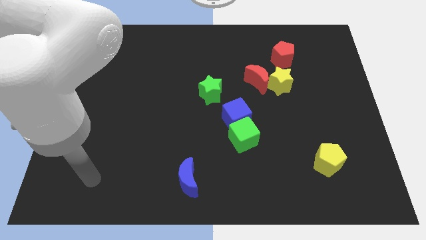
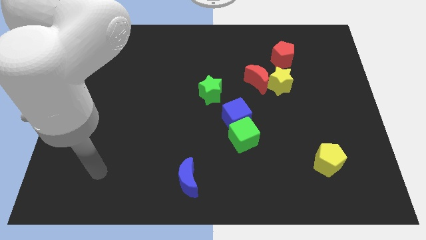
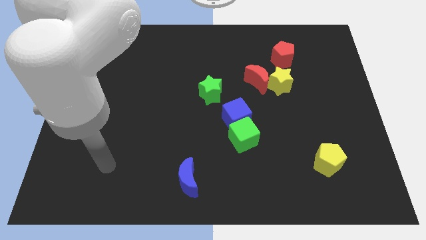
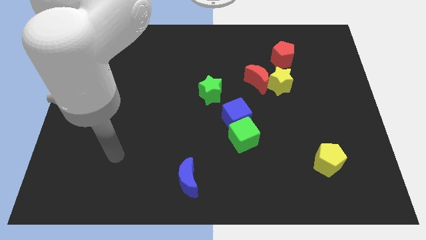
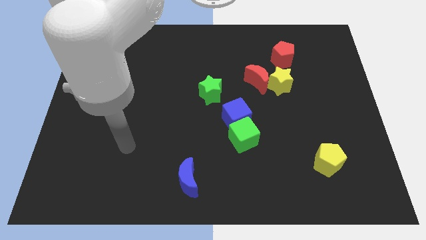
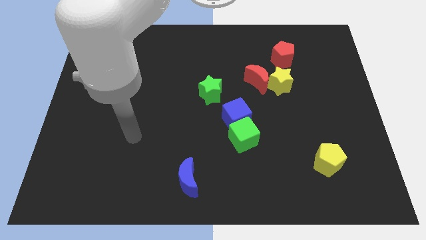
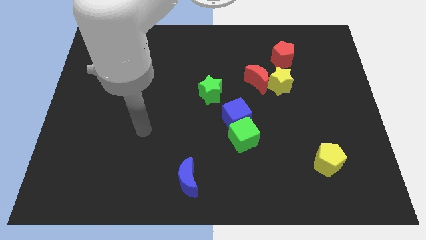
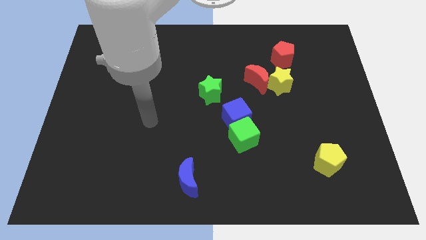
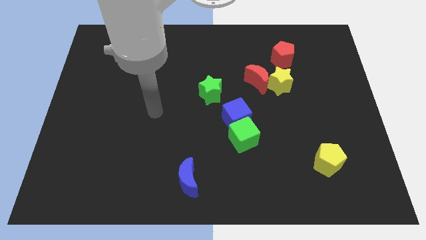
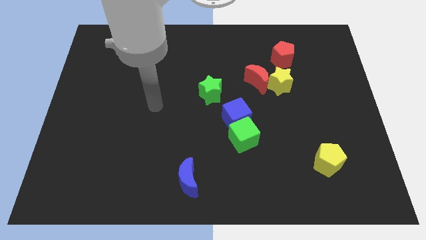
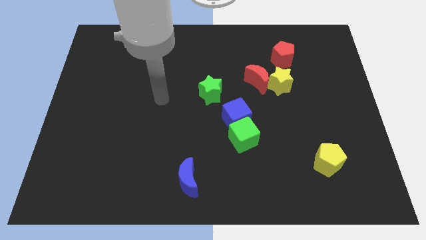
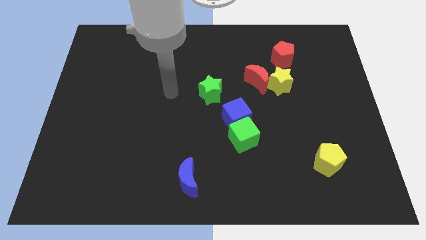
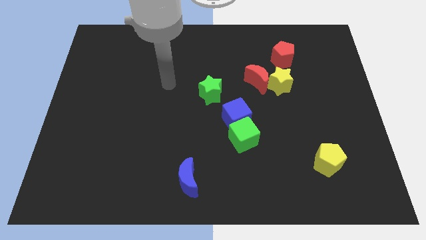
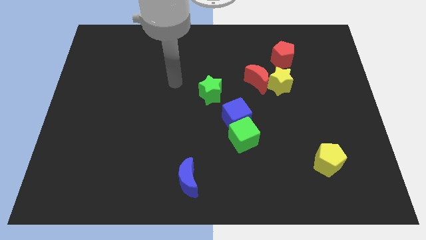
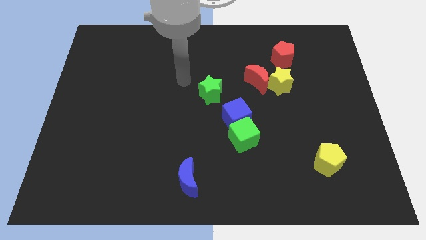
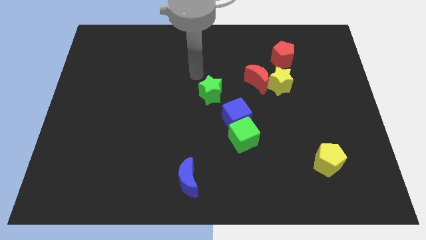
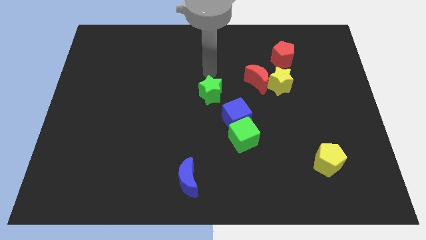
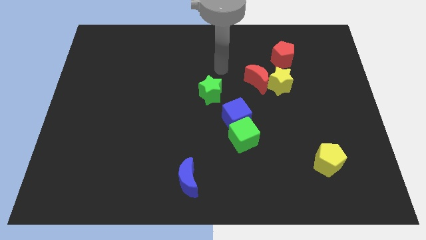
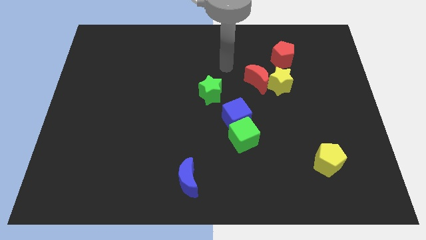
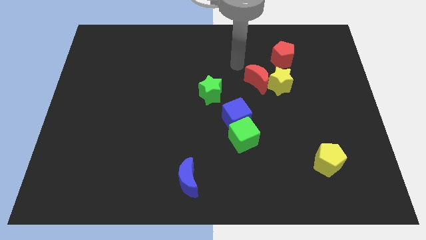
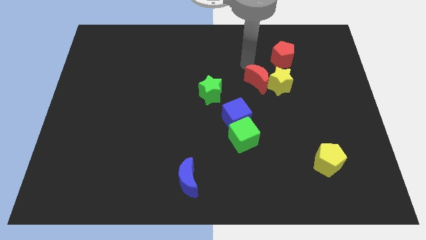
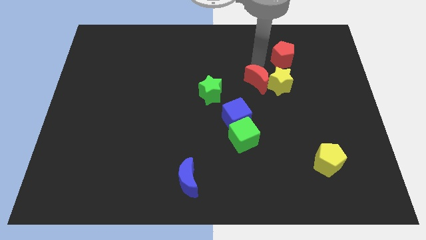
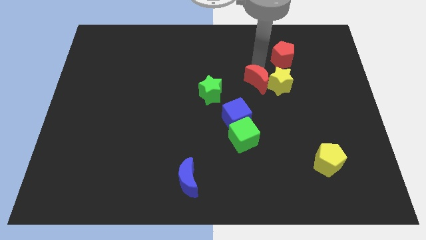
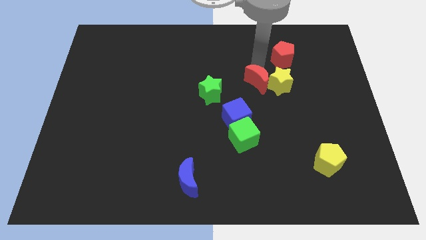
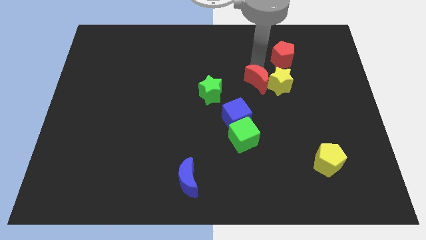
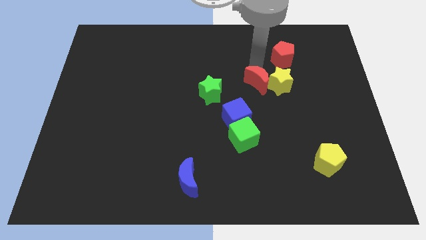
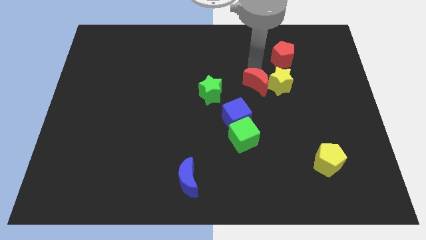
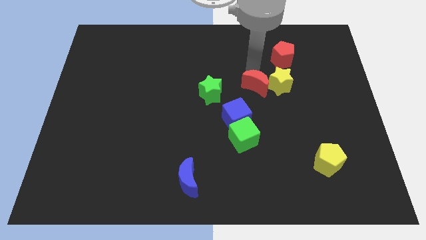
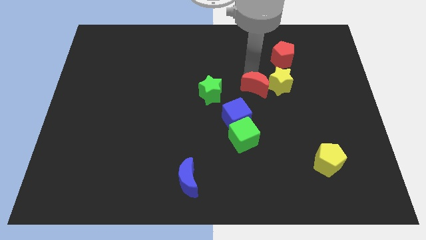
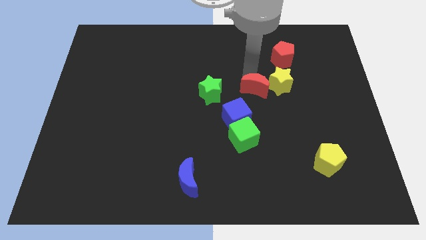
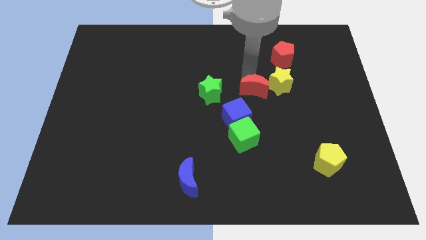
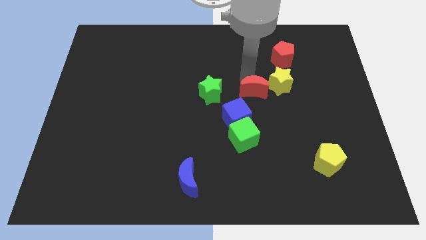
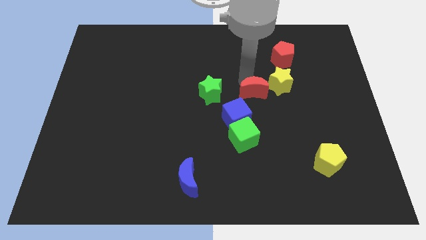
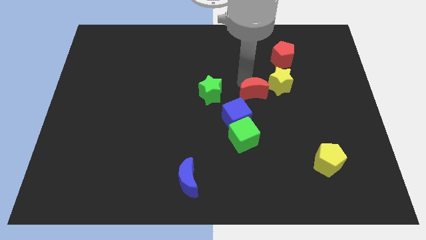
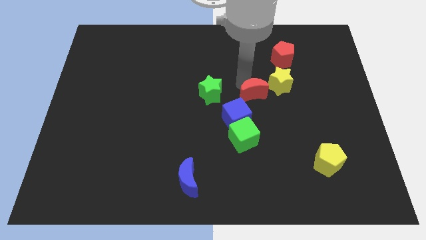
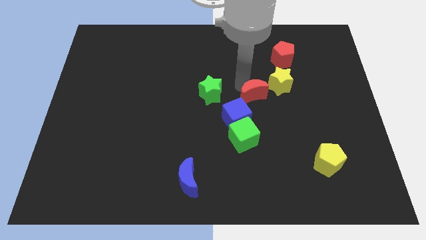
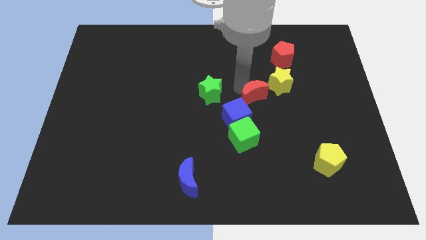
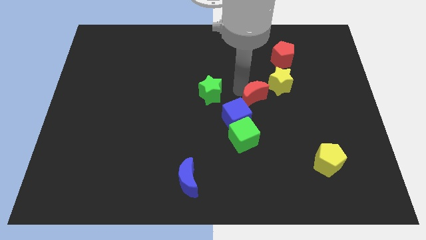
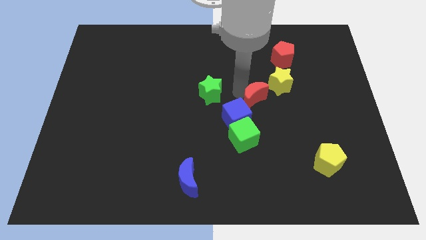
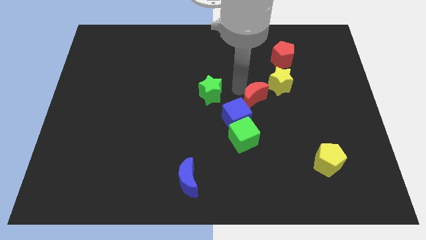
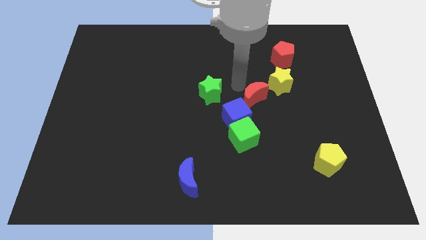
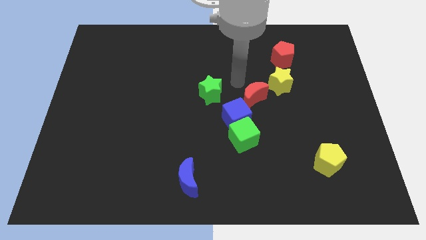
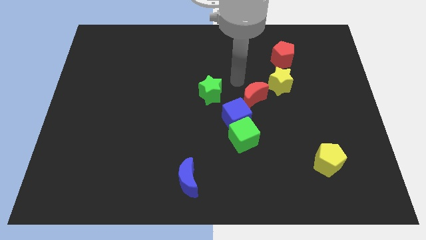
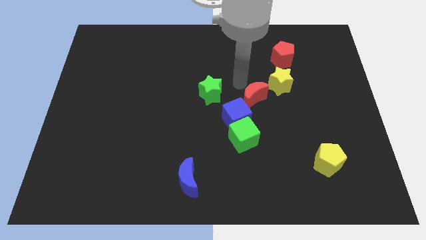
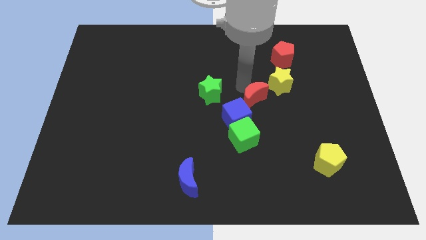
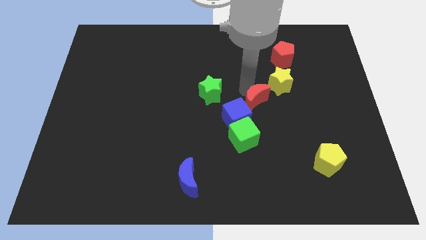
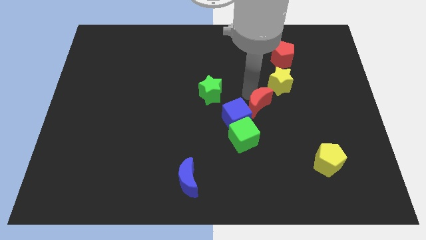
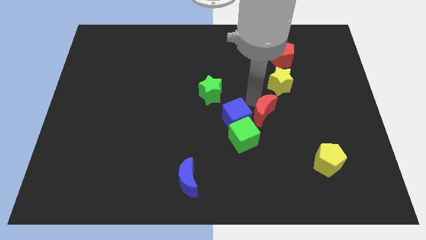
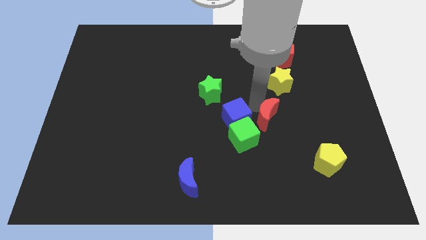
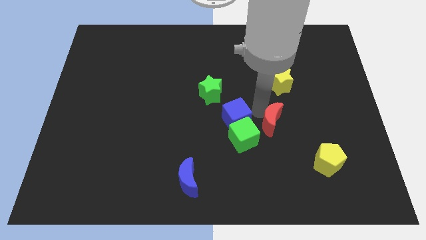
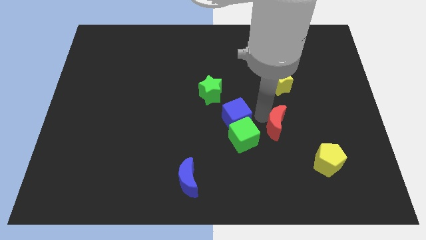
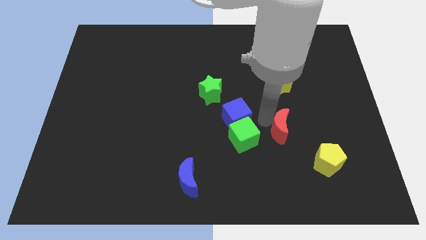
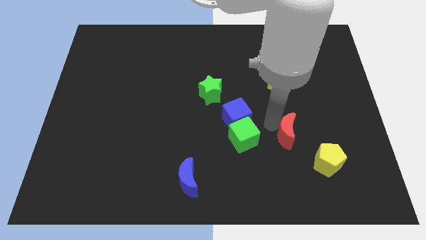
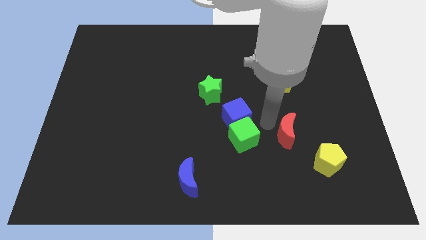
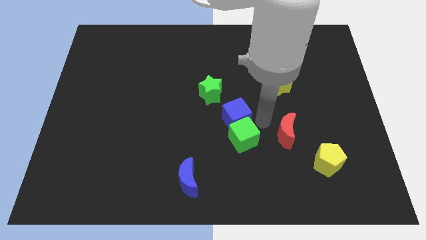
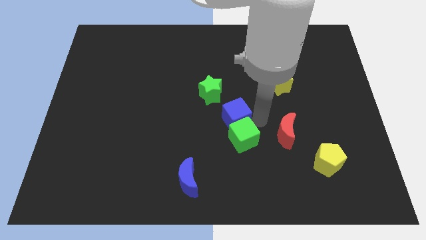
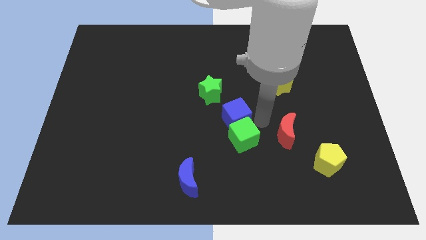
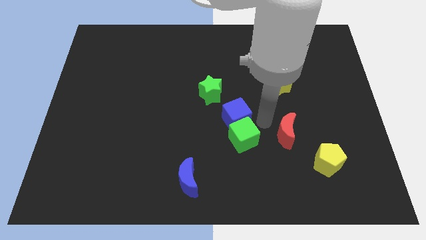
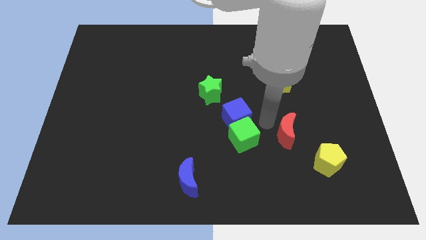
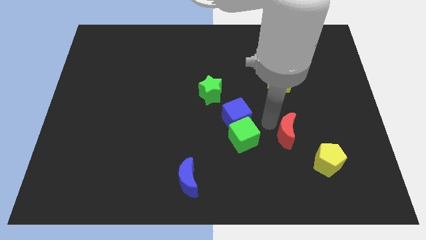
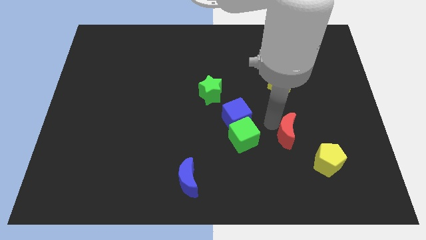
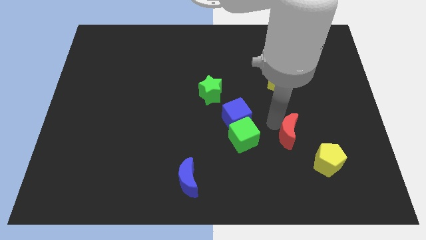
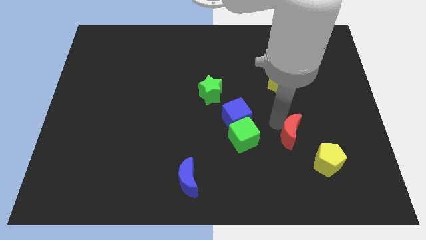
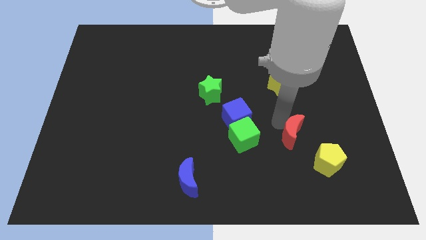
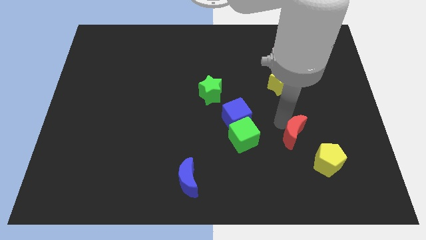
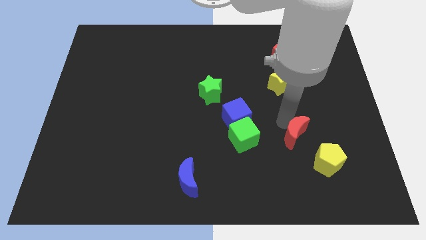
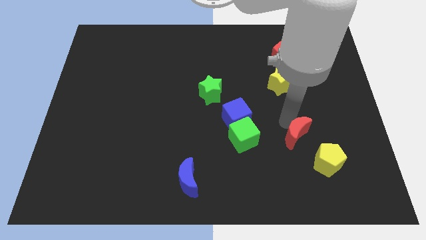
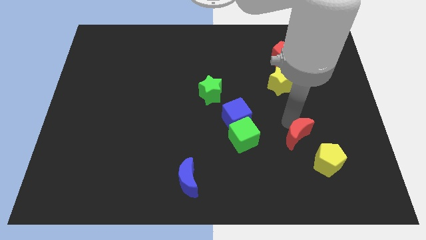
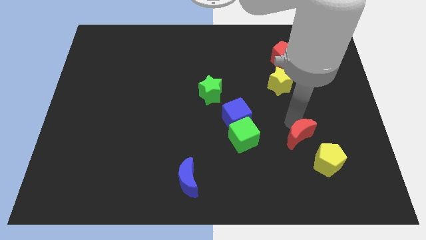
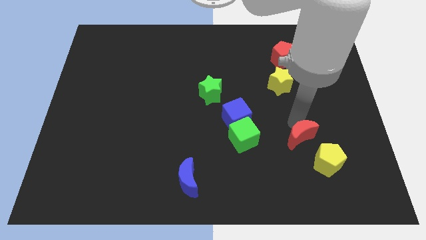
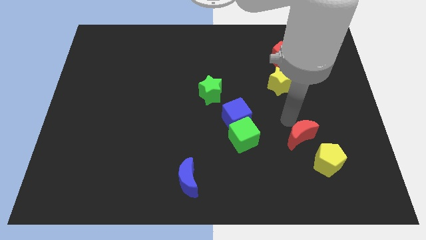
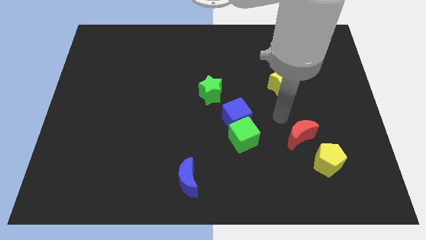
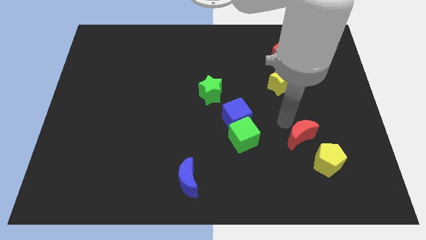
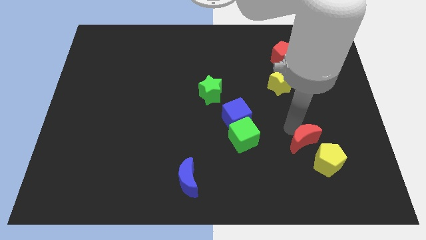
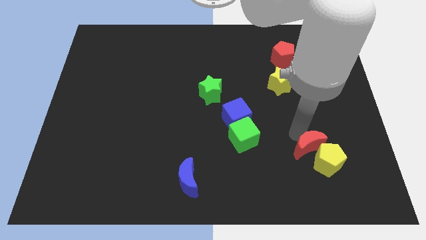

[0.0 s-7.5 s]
push the red moon towards the yellow pentagon
